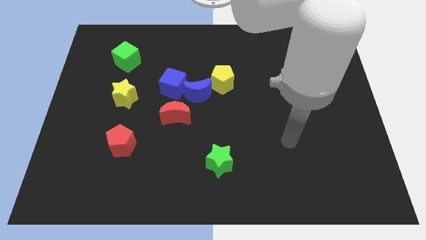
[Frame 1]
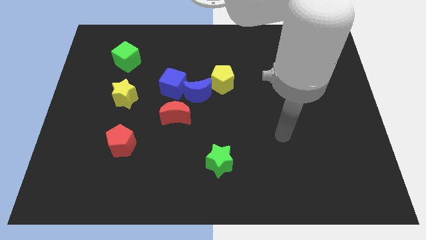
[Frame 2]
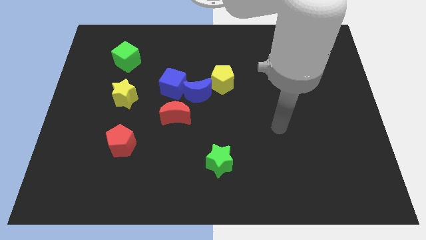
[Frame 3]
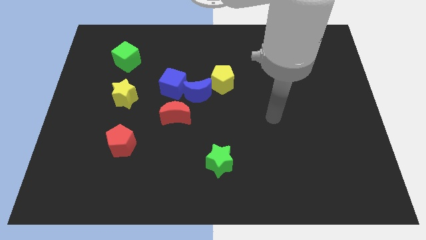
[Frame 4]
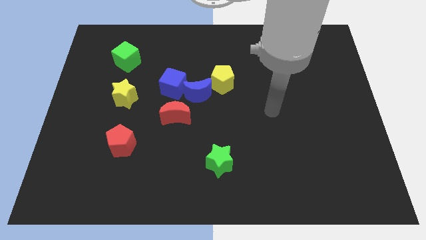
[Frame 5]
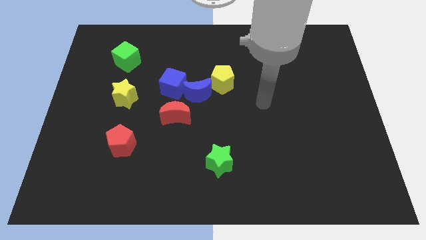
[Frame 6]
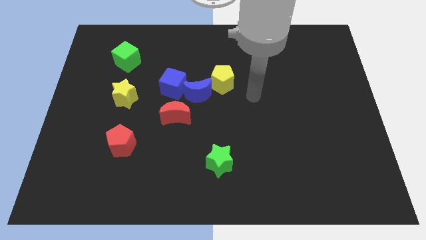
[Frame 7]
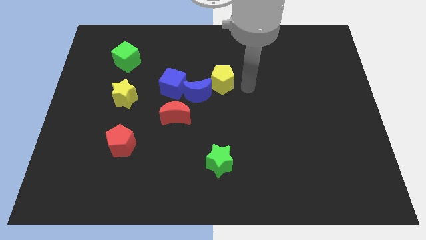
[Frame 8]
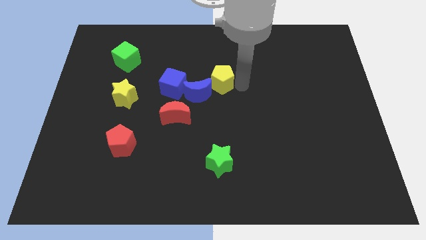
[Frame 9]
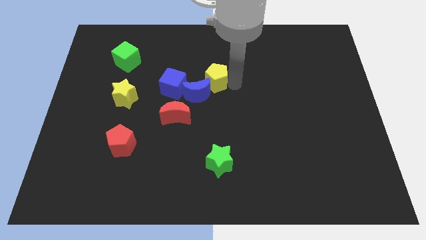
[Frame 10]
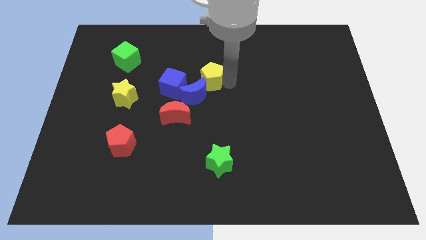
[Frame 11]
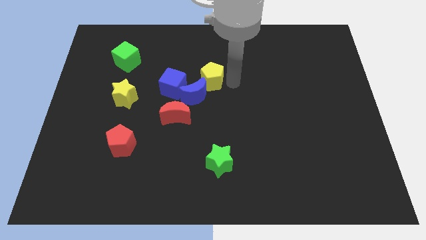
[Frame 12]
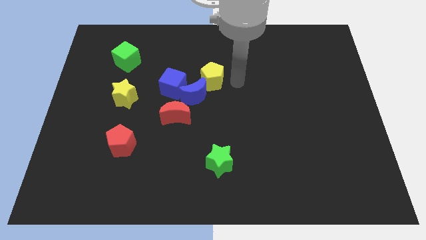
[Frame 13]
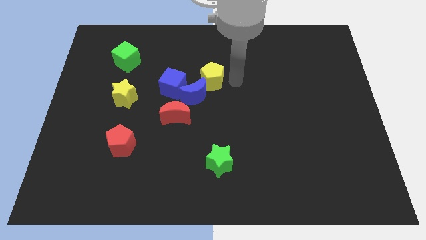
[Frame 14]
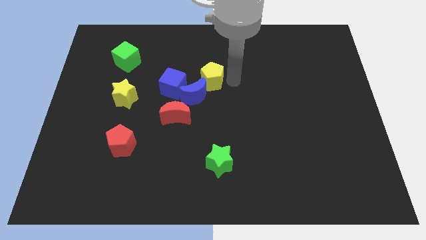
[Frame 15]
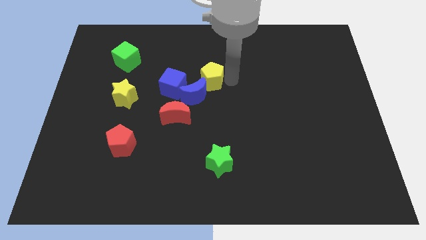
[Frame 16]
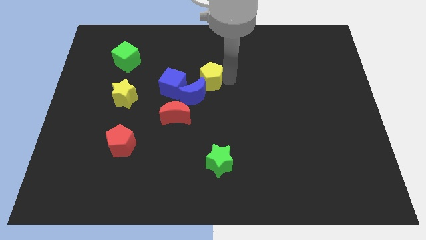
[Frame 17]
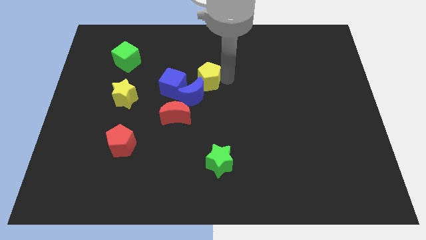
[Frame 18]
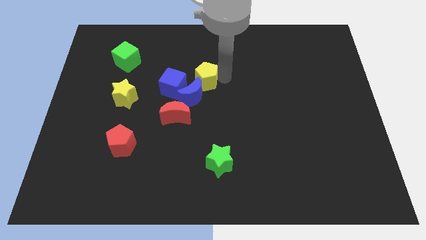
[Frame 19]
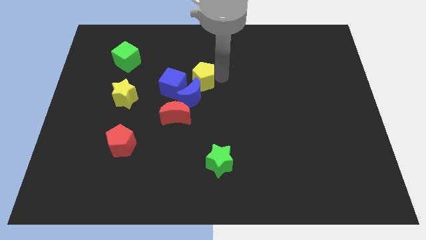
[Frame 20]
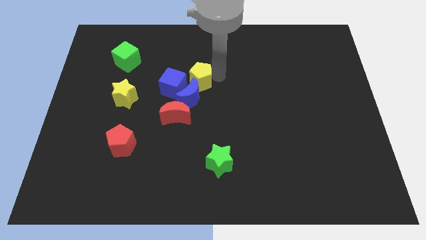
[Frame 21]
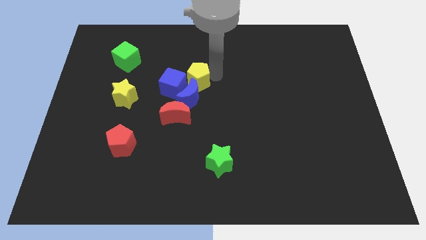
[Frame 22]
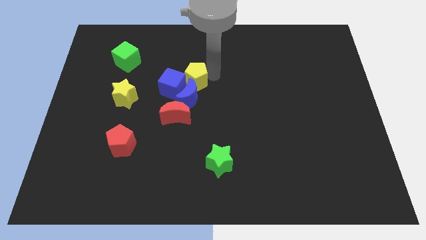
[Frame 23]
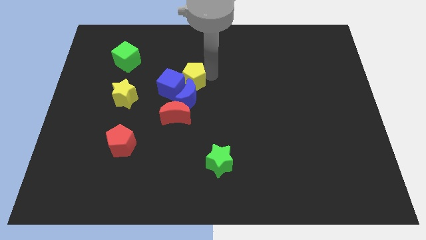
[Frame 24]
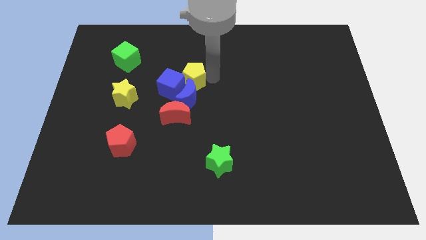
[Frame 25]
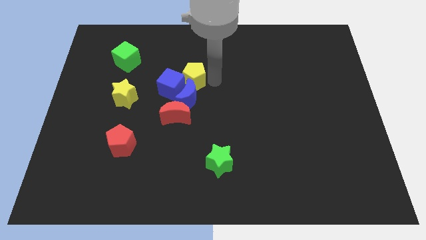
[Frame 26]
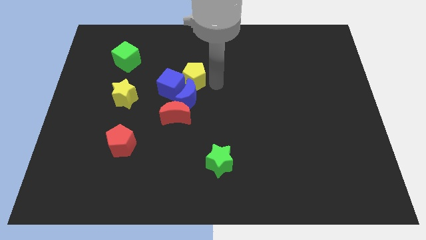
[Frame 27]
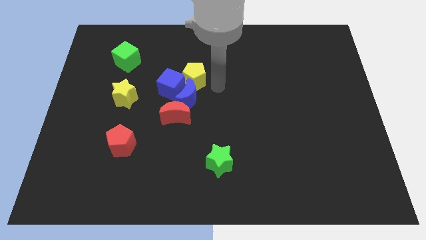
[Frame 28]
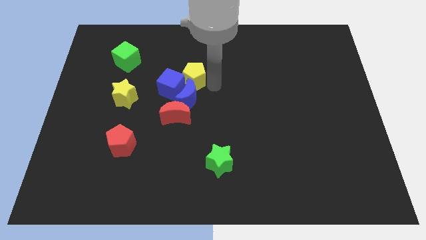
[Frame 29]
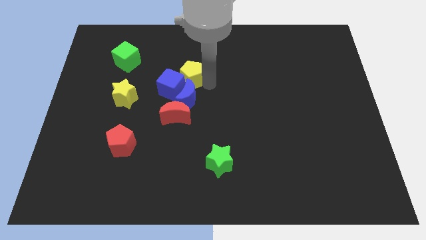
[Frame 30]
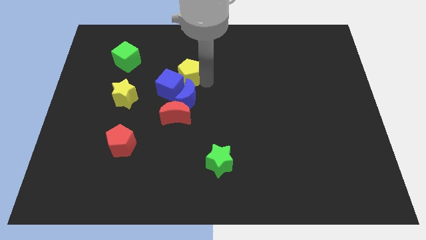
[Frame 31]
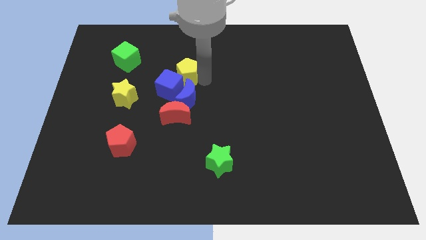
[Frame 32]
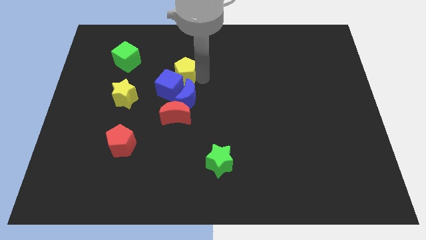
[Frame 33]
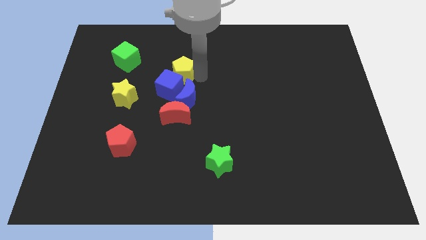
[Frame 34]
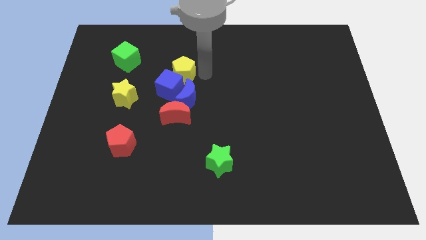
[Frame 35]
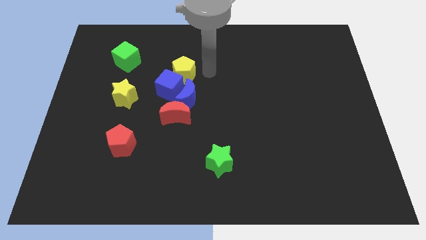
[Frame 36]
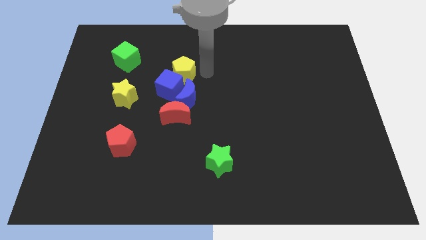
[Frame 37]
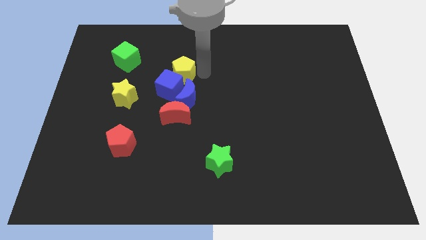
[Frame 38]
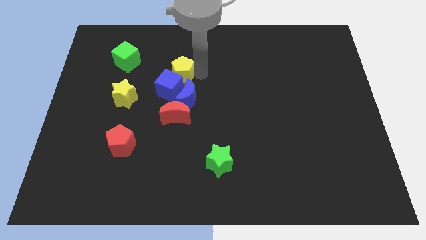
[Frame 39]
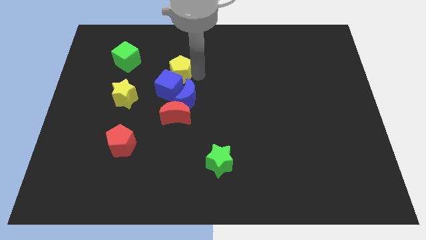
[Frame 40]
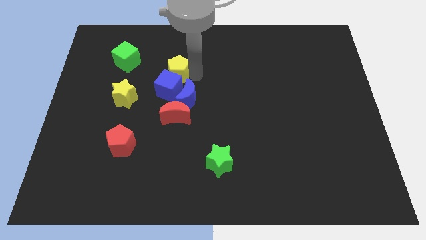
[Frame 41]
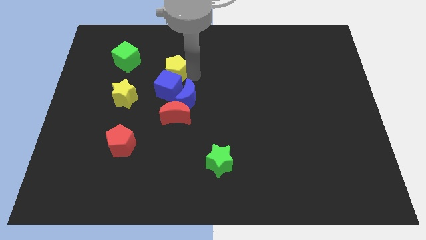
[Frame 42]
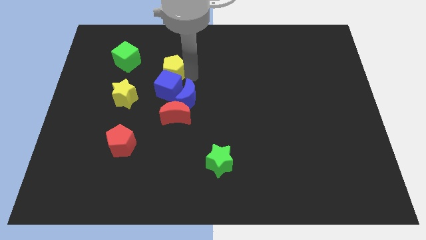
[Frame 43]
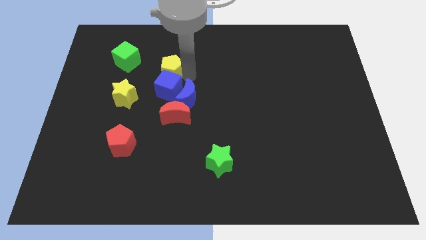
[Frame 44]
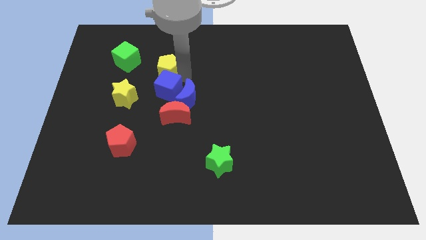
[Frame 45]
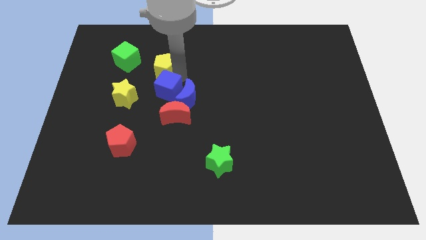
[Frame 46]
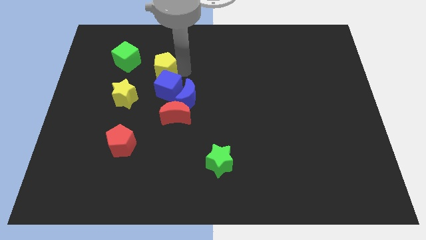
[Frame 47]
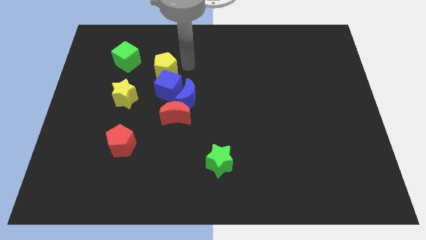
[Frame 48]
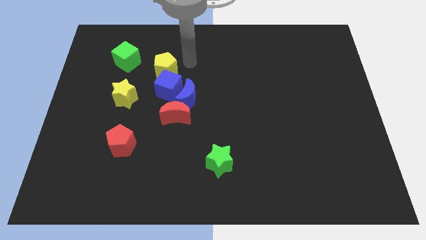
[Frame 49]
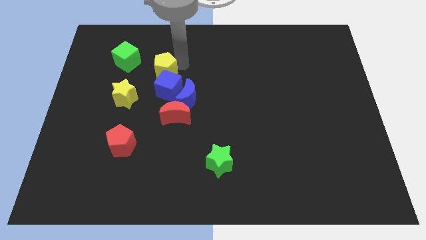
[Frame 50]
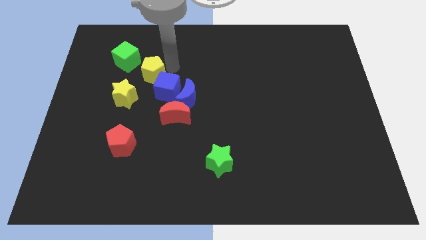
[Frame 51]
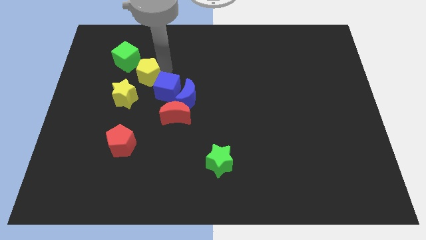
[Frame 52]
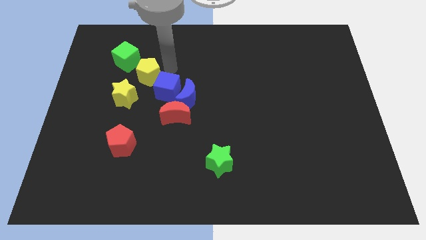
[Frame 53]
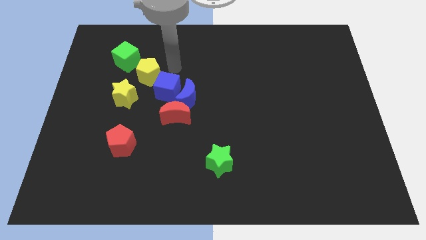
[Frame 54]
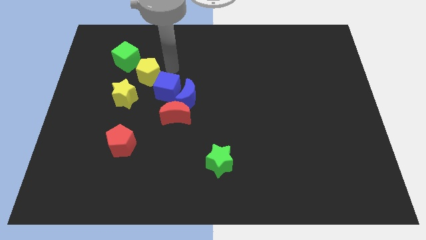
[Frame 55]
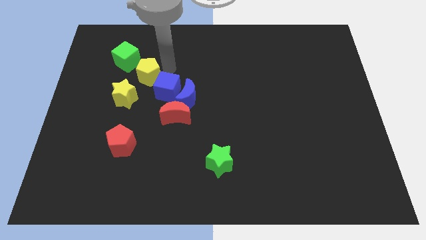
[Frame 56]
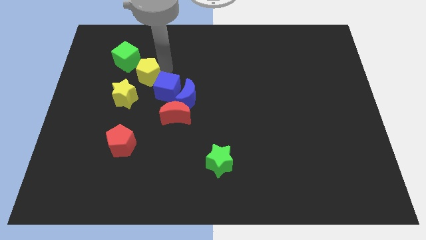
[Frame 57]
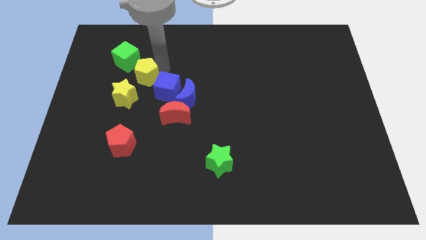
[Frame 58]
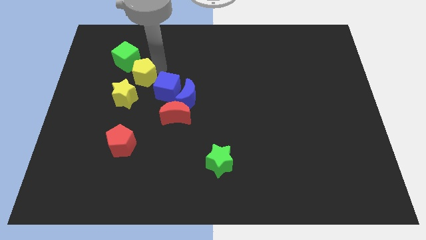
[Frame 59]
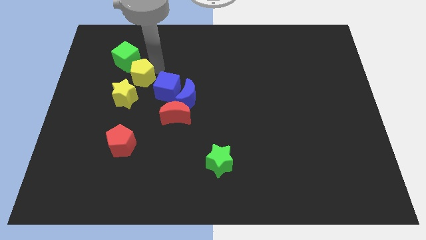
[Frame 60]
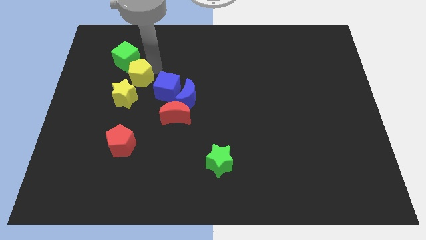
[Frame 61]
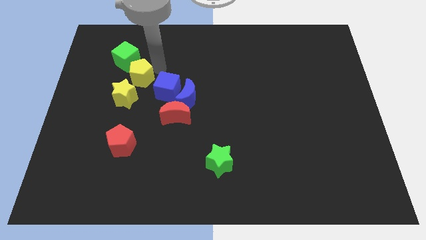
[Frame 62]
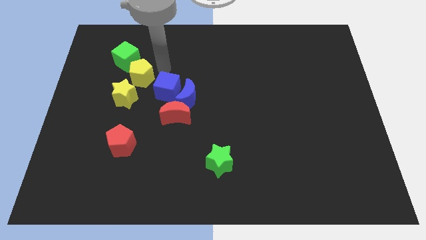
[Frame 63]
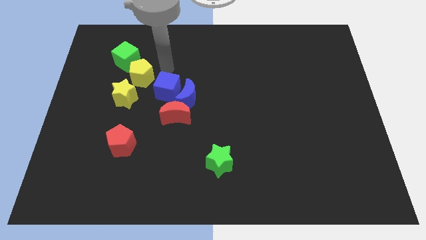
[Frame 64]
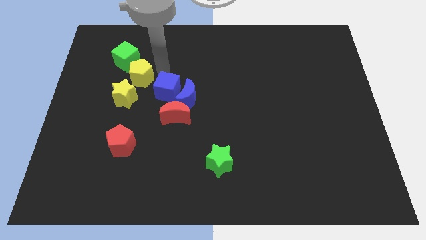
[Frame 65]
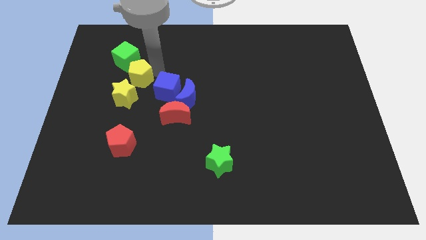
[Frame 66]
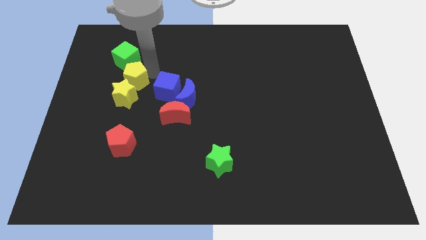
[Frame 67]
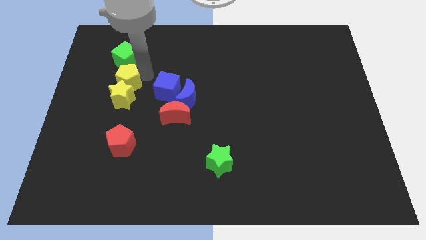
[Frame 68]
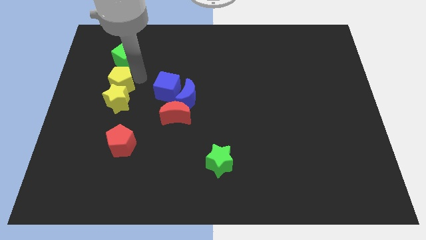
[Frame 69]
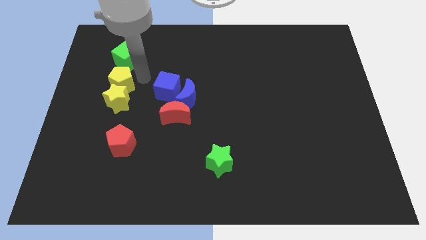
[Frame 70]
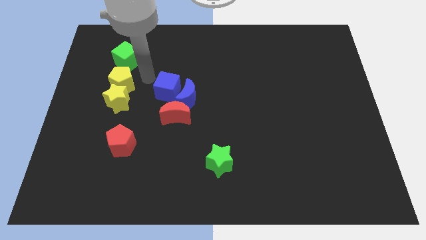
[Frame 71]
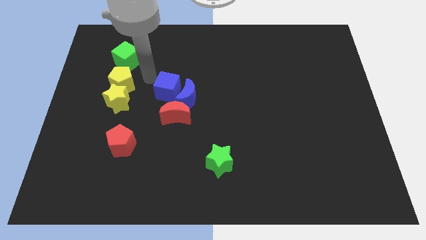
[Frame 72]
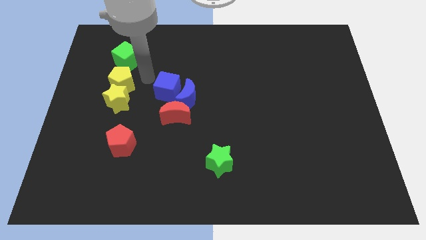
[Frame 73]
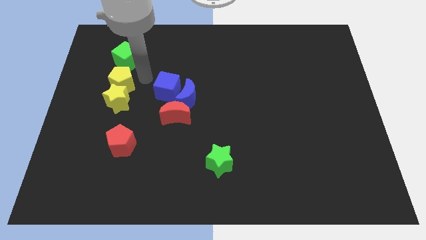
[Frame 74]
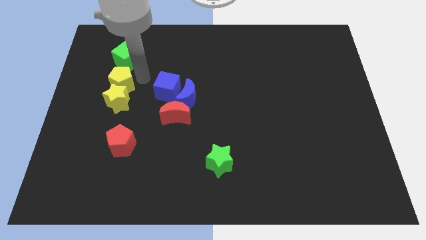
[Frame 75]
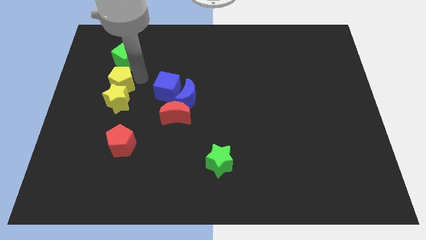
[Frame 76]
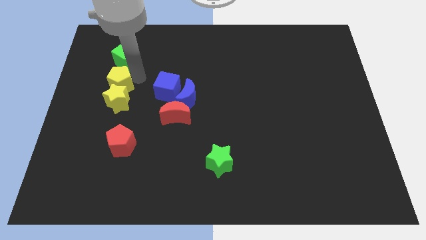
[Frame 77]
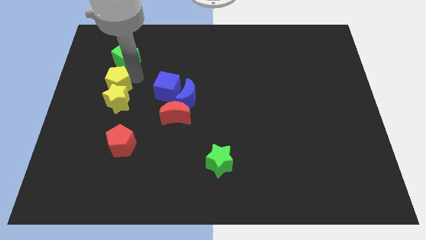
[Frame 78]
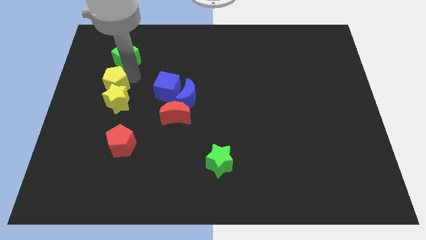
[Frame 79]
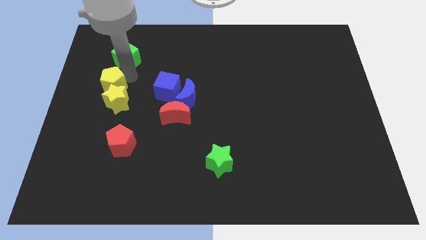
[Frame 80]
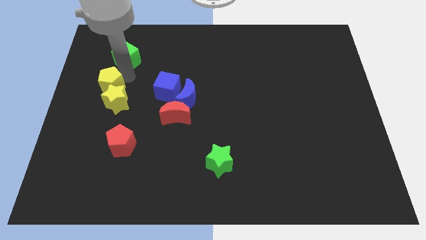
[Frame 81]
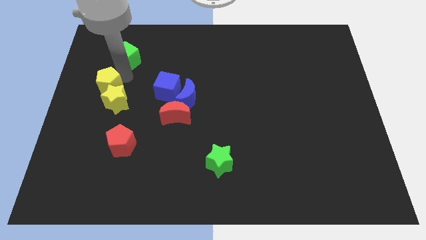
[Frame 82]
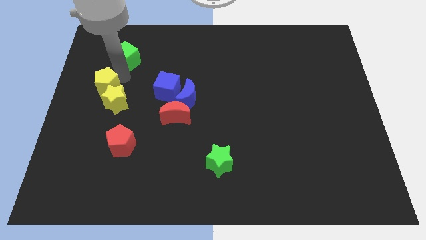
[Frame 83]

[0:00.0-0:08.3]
put the yellow pentagon to the left side of the board
